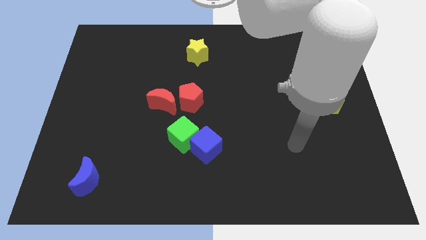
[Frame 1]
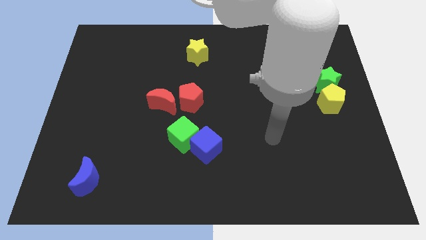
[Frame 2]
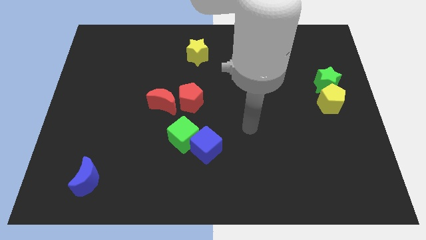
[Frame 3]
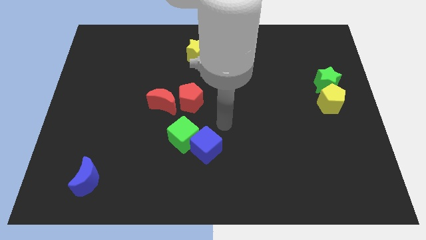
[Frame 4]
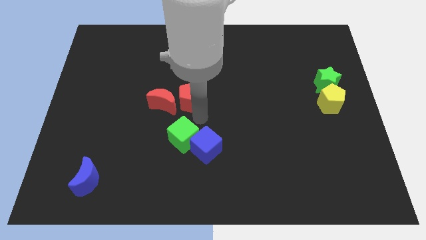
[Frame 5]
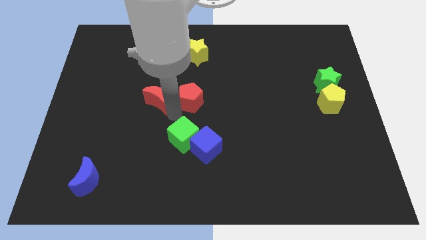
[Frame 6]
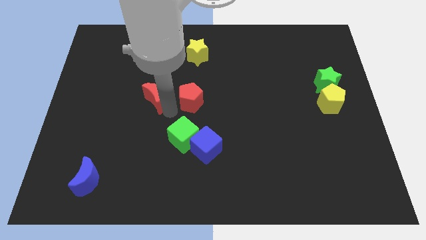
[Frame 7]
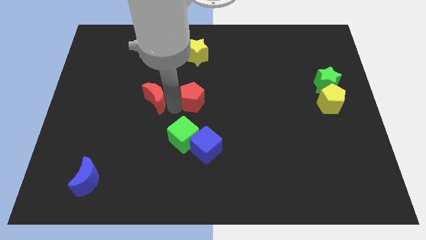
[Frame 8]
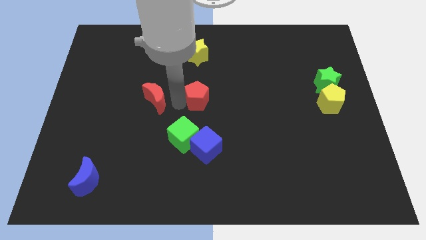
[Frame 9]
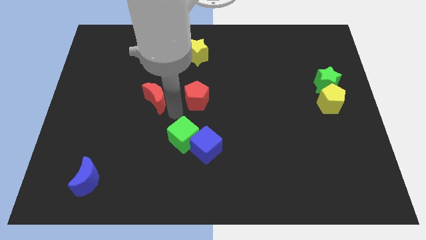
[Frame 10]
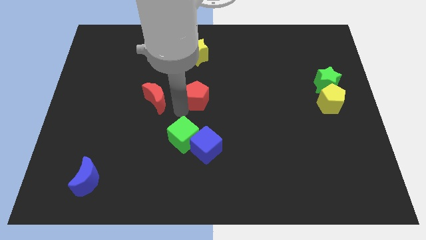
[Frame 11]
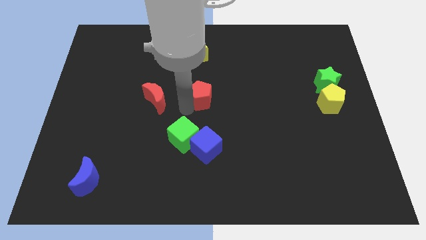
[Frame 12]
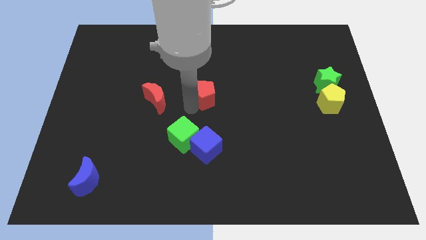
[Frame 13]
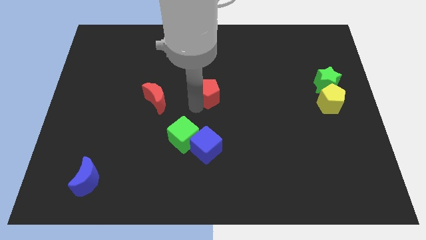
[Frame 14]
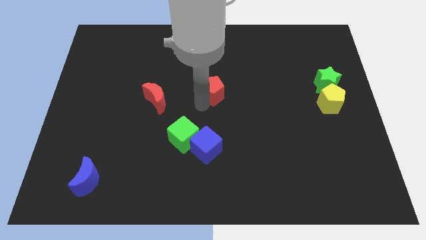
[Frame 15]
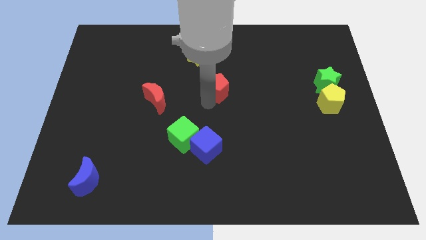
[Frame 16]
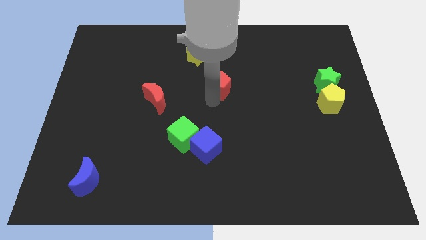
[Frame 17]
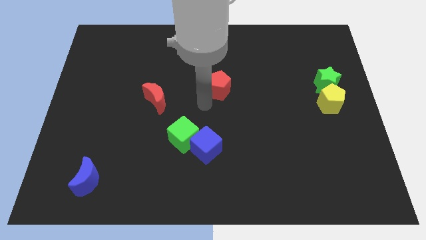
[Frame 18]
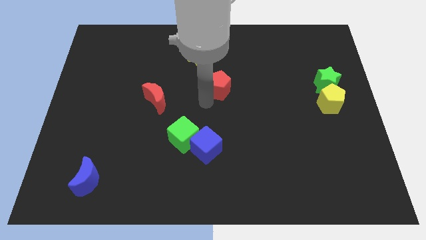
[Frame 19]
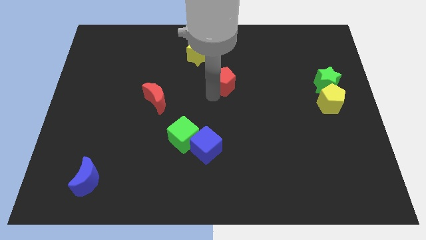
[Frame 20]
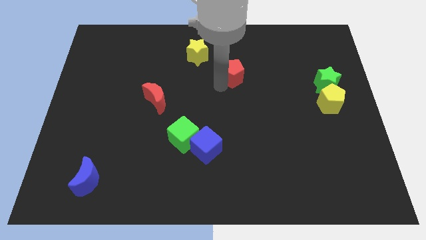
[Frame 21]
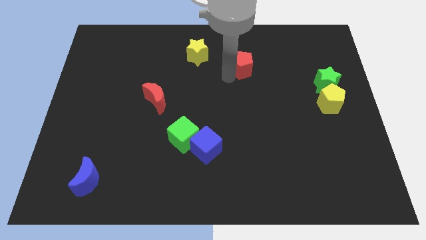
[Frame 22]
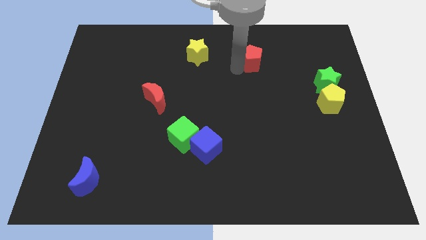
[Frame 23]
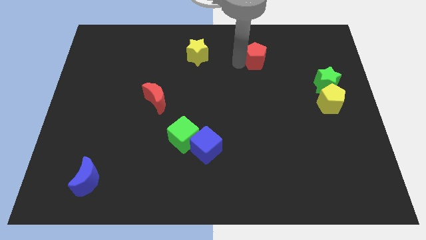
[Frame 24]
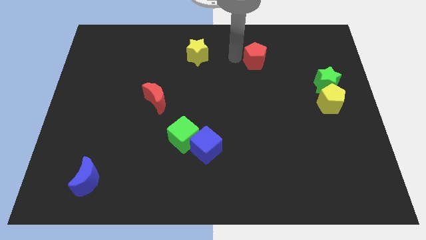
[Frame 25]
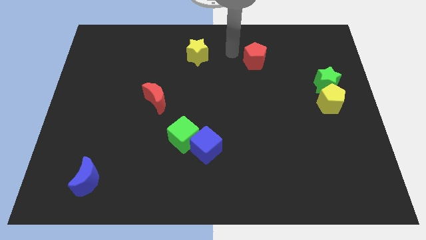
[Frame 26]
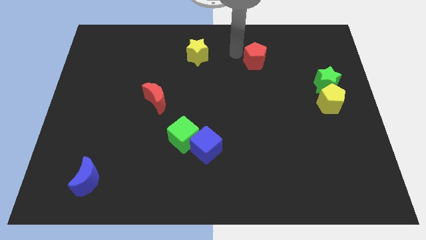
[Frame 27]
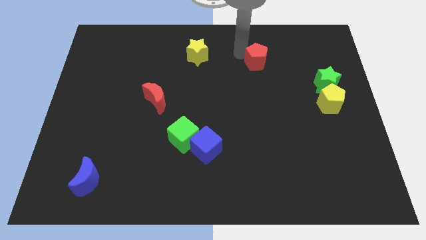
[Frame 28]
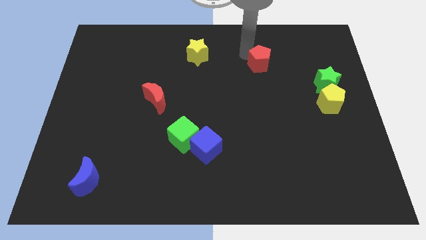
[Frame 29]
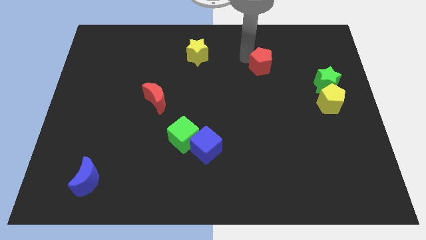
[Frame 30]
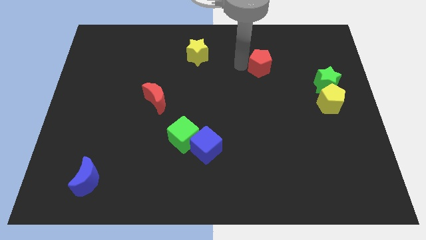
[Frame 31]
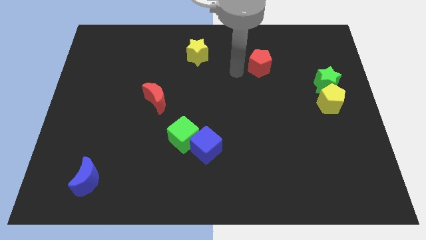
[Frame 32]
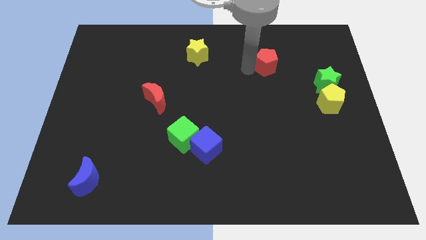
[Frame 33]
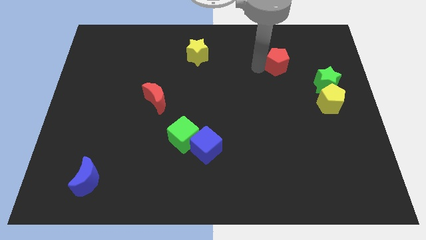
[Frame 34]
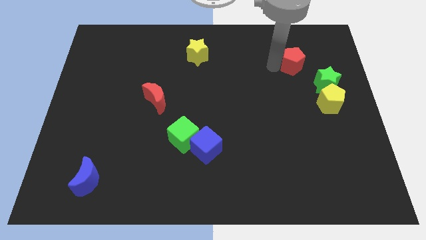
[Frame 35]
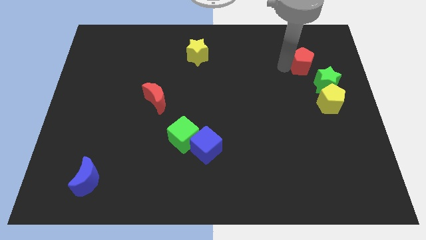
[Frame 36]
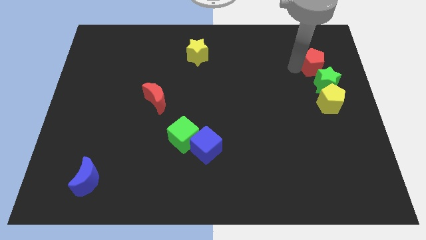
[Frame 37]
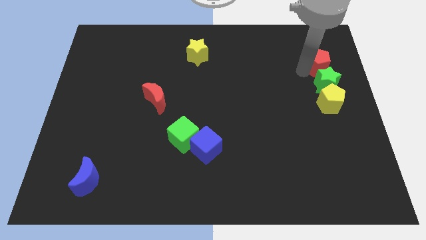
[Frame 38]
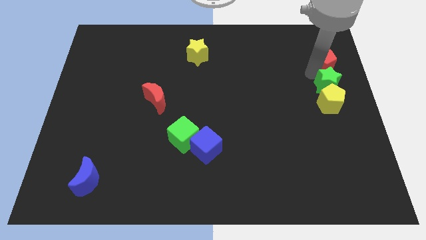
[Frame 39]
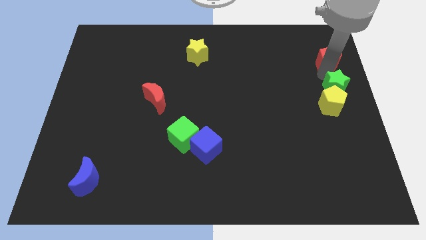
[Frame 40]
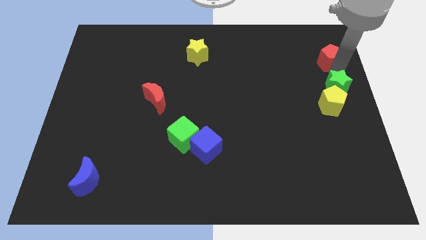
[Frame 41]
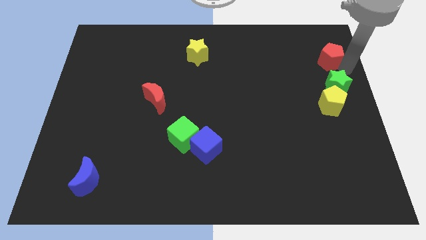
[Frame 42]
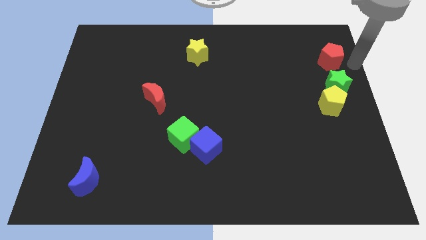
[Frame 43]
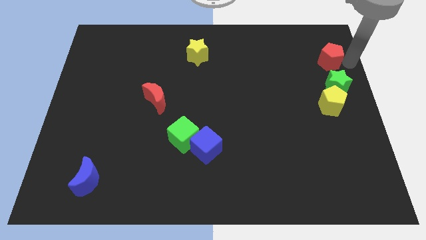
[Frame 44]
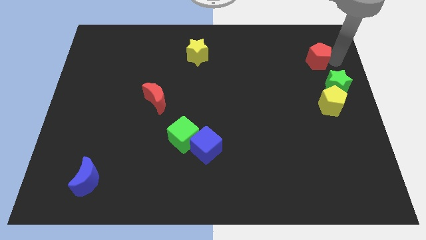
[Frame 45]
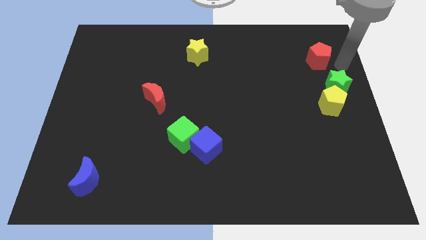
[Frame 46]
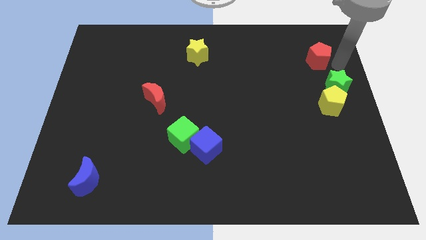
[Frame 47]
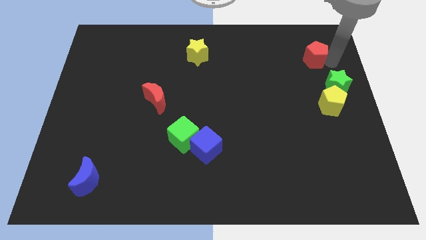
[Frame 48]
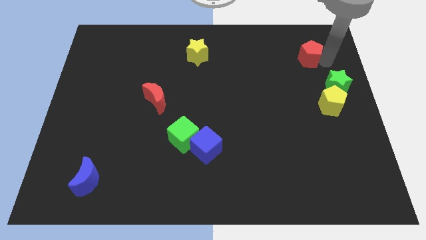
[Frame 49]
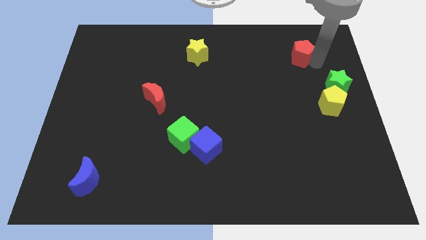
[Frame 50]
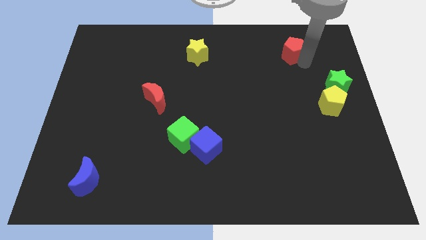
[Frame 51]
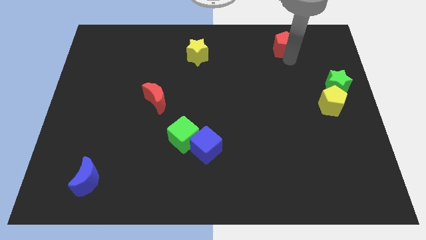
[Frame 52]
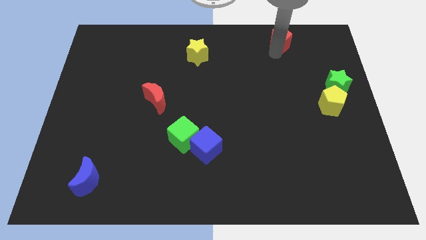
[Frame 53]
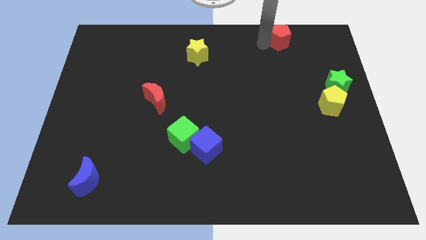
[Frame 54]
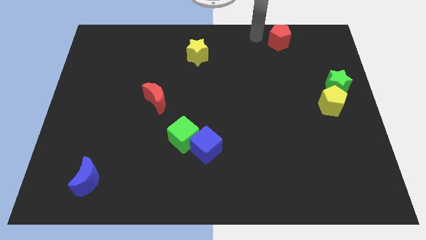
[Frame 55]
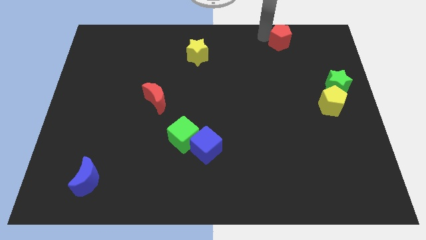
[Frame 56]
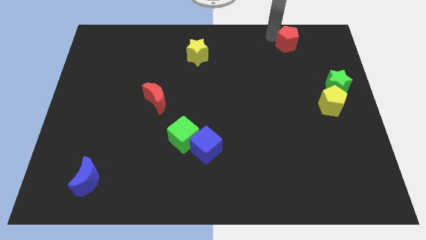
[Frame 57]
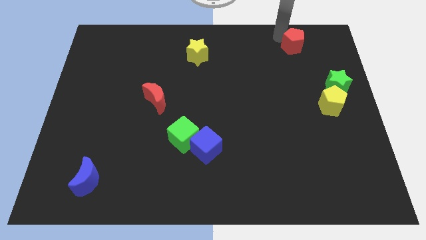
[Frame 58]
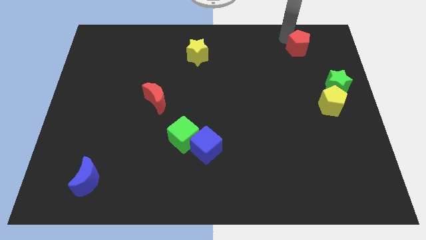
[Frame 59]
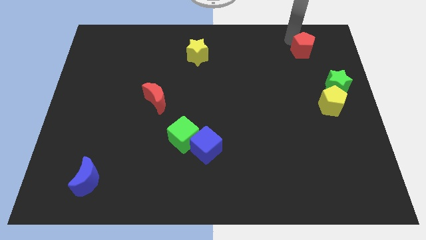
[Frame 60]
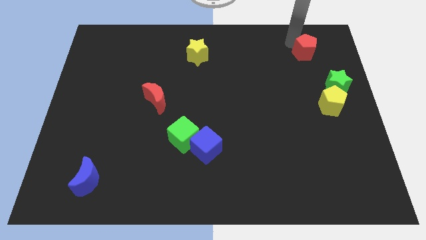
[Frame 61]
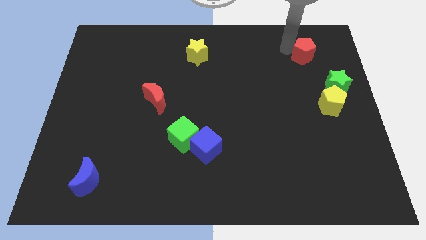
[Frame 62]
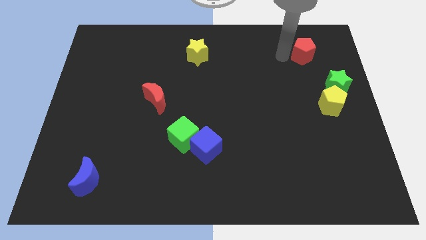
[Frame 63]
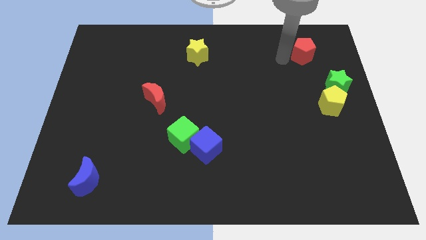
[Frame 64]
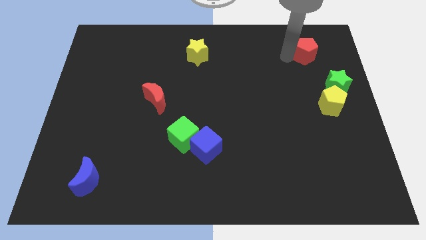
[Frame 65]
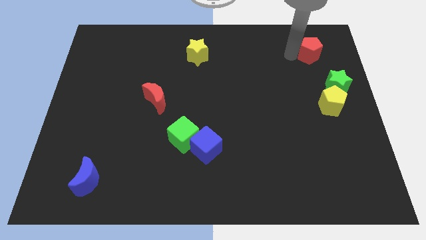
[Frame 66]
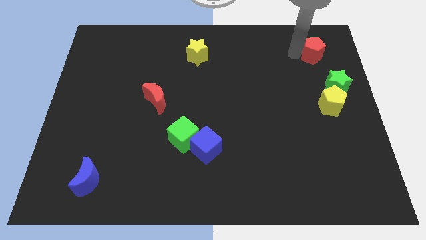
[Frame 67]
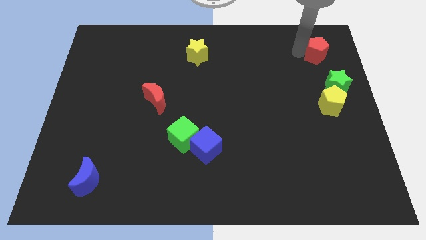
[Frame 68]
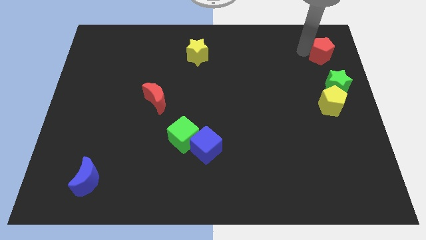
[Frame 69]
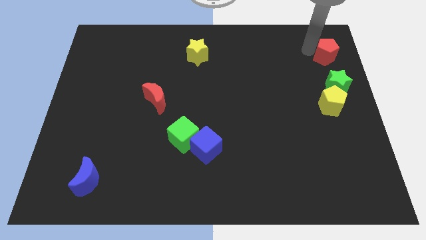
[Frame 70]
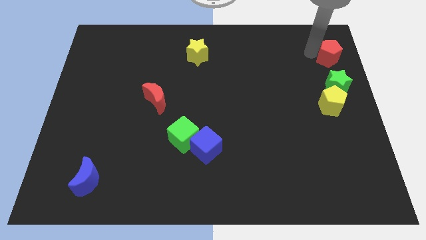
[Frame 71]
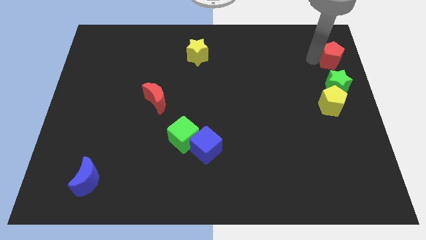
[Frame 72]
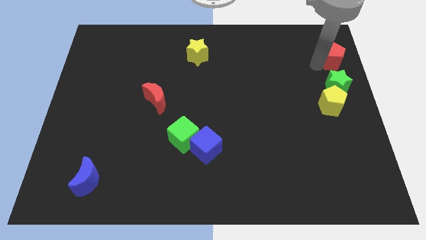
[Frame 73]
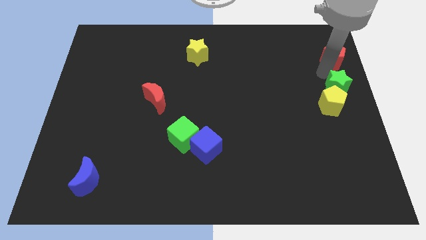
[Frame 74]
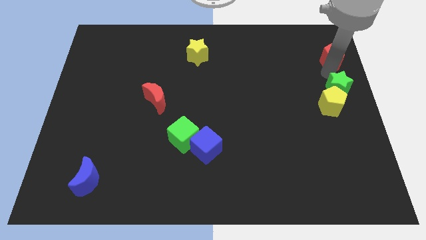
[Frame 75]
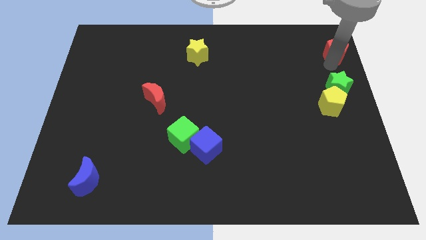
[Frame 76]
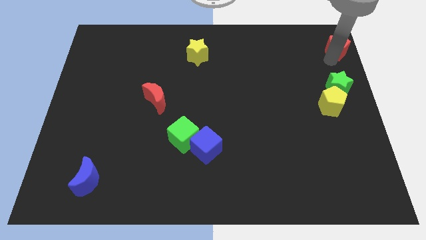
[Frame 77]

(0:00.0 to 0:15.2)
push the red pentagon to the top right
